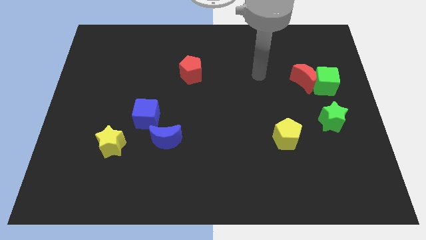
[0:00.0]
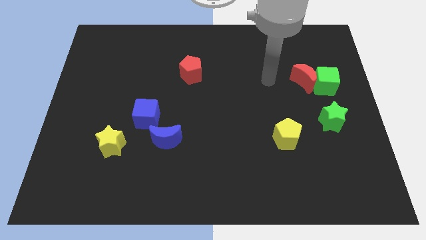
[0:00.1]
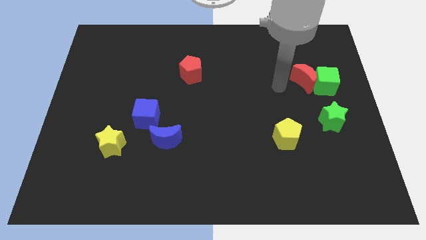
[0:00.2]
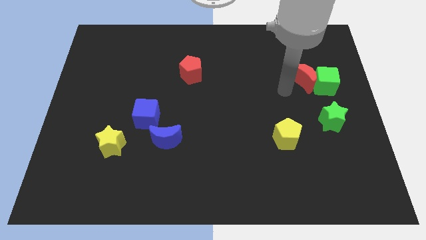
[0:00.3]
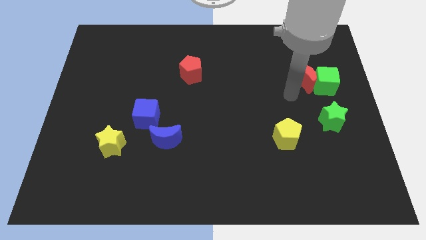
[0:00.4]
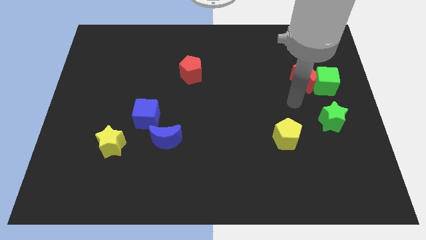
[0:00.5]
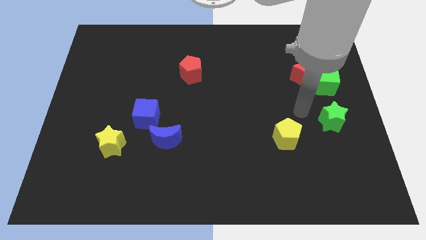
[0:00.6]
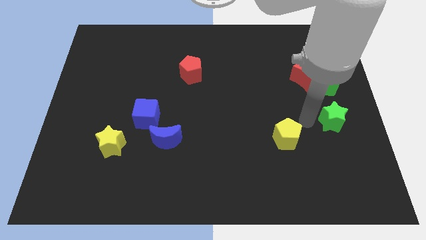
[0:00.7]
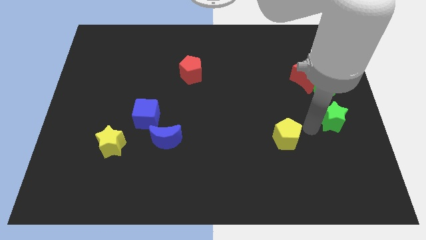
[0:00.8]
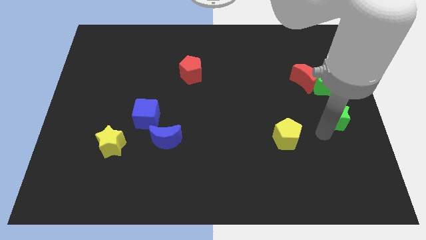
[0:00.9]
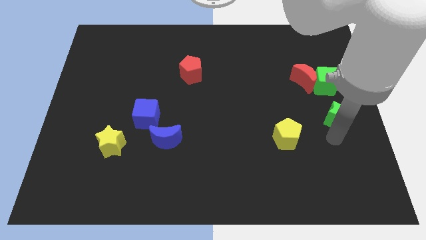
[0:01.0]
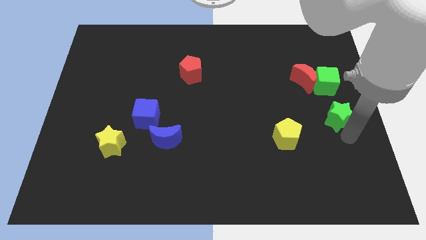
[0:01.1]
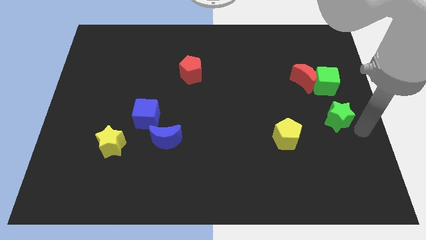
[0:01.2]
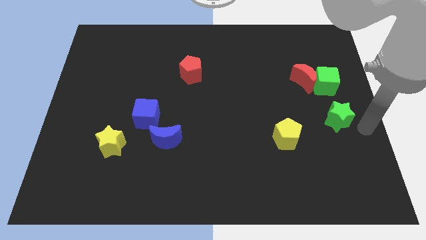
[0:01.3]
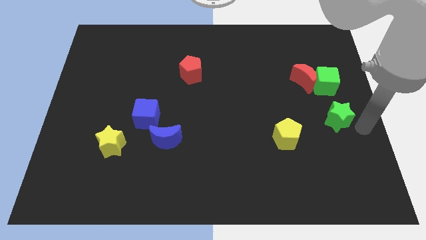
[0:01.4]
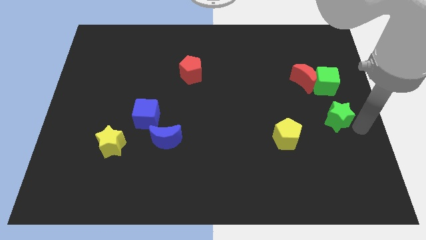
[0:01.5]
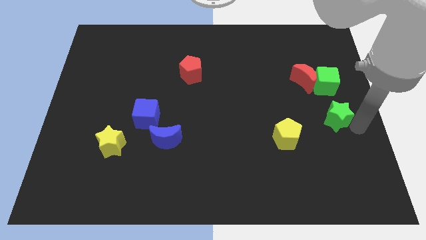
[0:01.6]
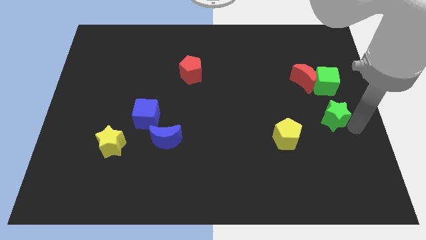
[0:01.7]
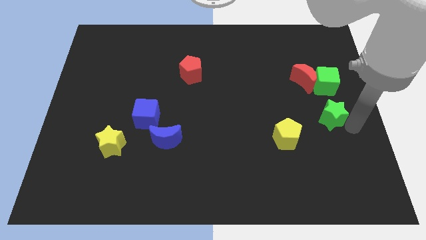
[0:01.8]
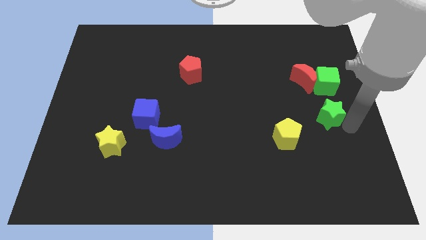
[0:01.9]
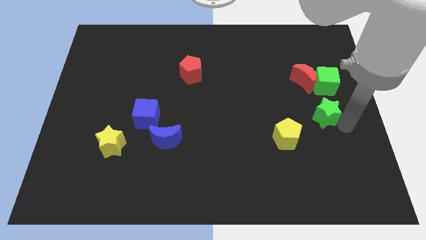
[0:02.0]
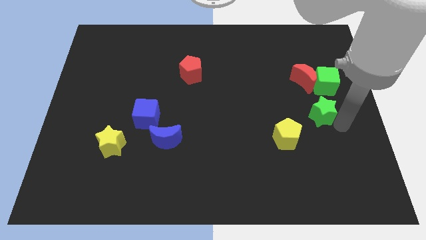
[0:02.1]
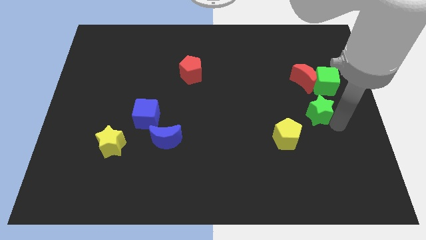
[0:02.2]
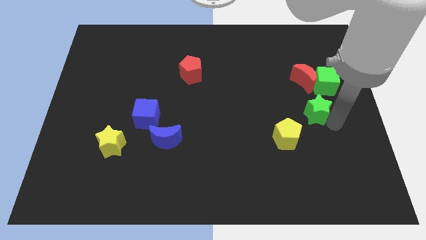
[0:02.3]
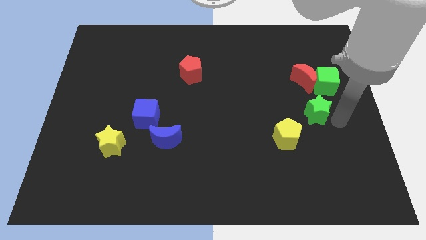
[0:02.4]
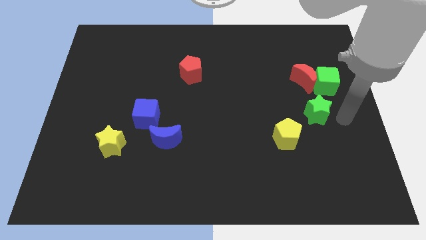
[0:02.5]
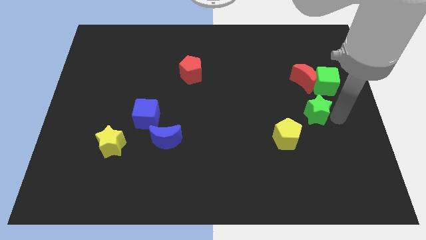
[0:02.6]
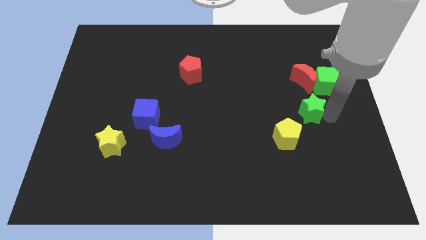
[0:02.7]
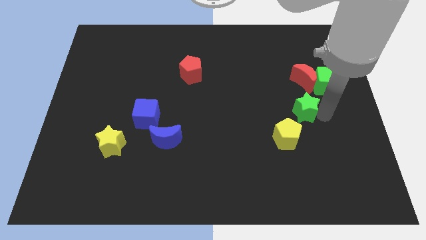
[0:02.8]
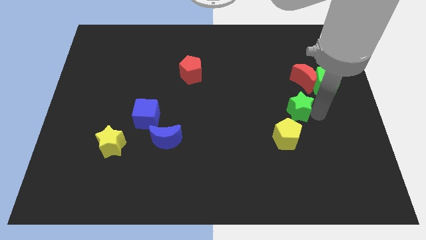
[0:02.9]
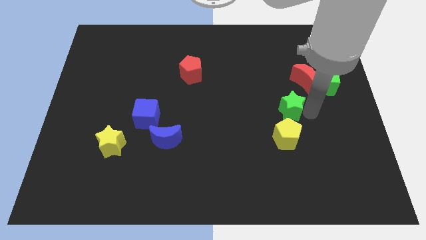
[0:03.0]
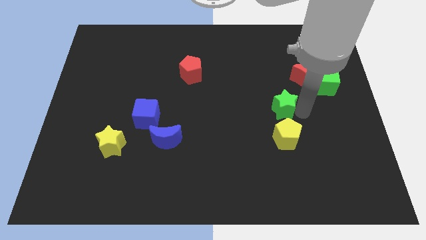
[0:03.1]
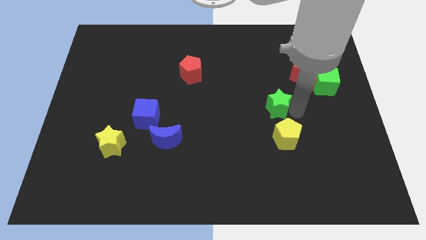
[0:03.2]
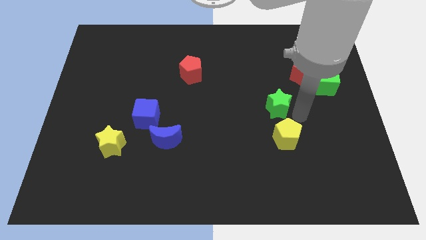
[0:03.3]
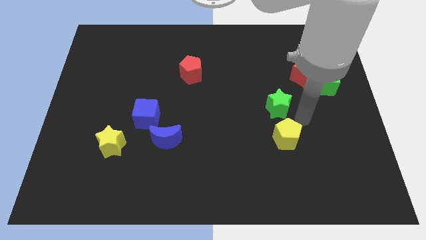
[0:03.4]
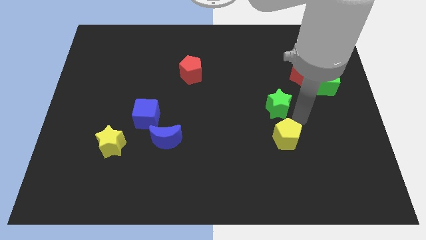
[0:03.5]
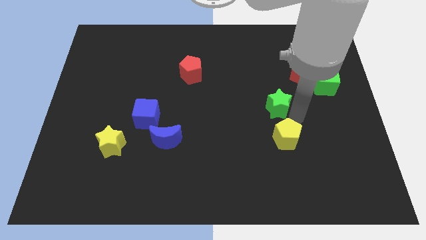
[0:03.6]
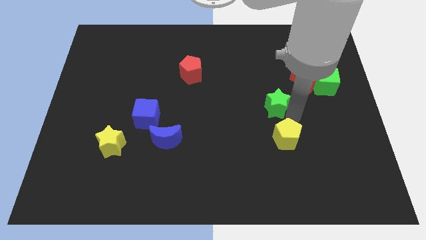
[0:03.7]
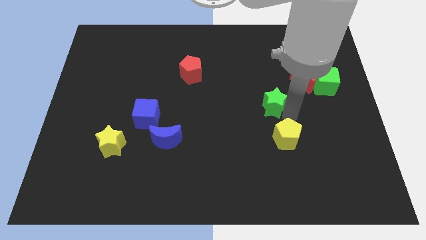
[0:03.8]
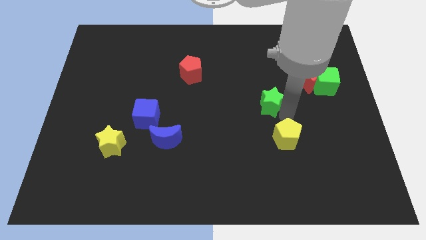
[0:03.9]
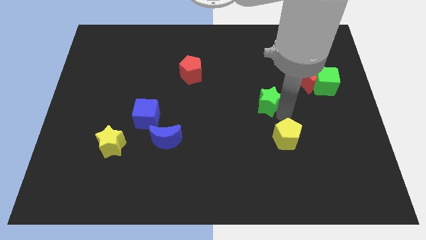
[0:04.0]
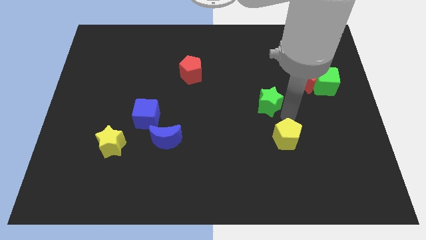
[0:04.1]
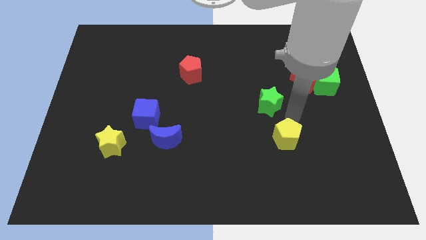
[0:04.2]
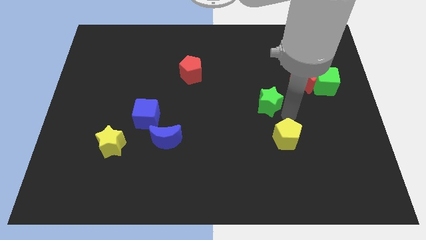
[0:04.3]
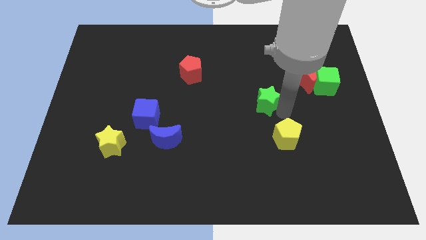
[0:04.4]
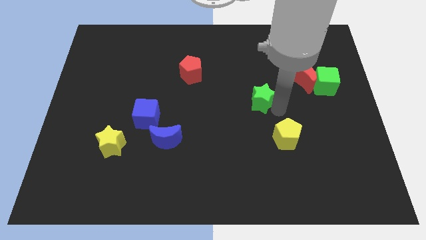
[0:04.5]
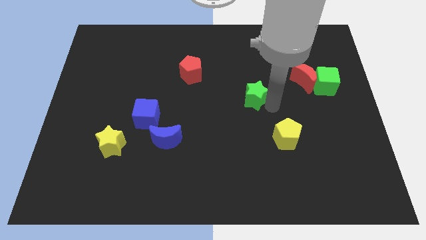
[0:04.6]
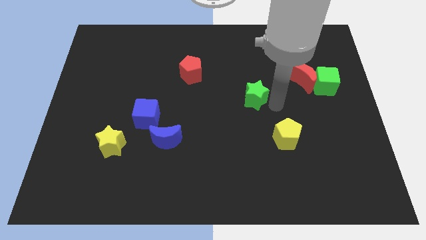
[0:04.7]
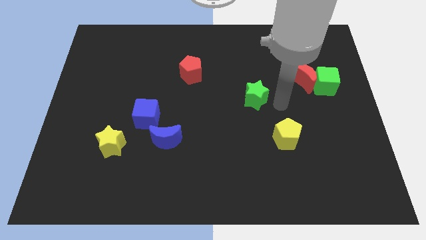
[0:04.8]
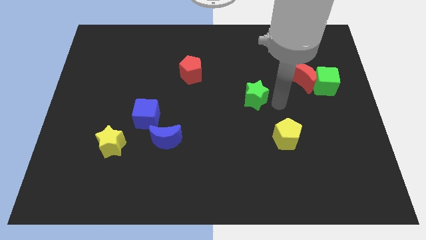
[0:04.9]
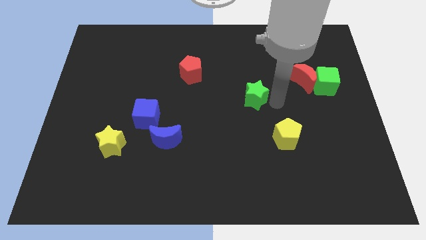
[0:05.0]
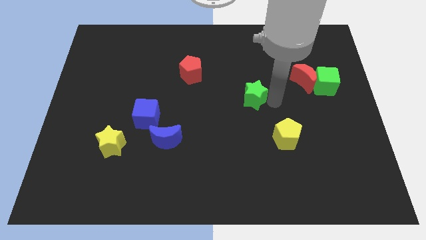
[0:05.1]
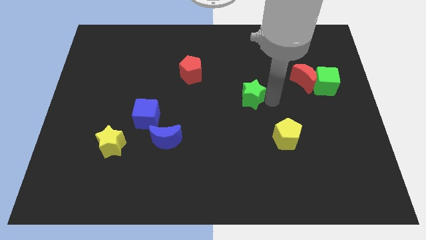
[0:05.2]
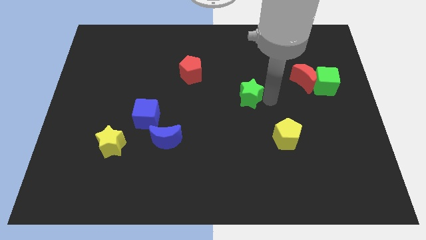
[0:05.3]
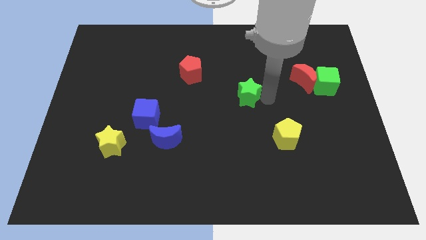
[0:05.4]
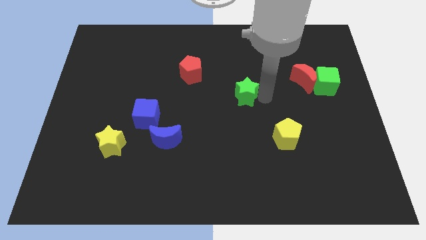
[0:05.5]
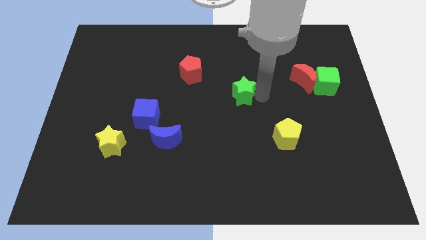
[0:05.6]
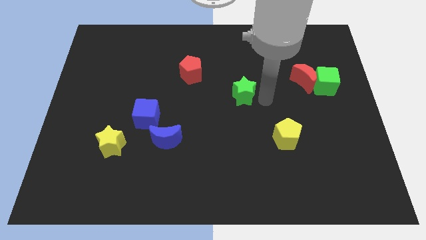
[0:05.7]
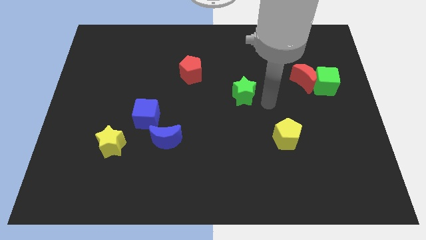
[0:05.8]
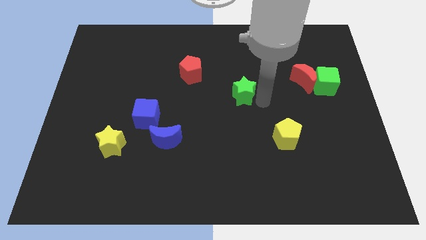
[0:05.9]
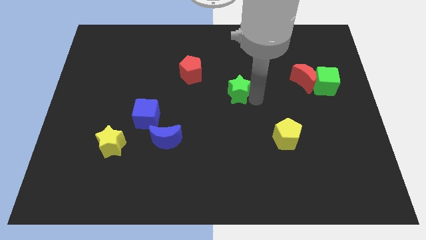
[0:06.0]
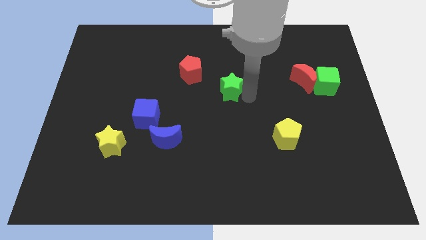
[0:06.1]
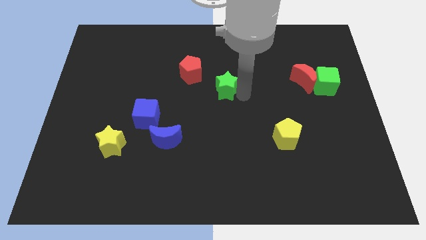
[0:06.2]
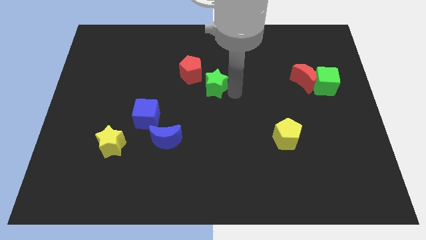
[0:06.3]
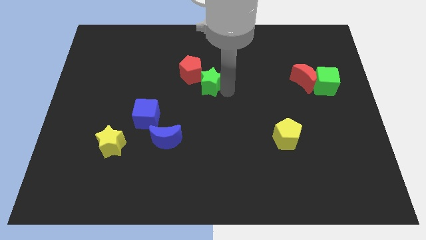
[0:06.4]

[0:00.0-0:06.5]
slide the green star to the red pentagon

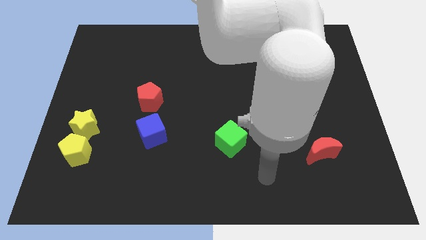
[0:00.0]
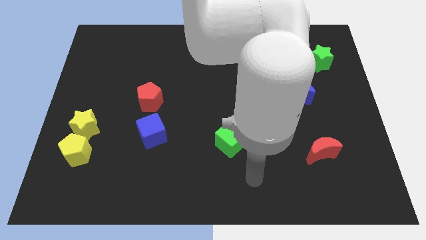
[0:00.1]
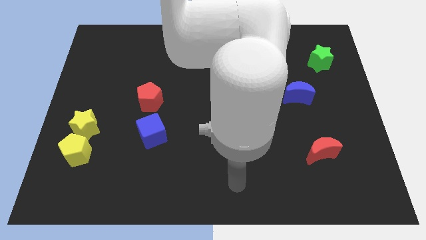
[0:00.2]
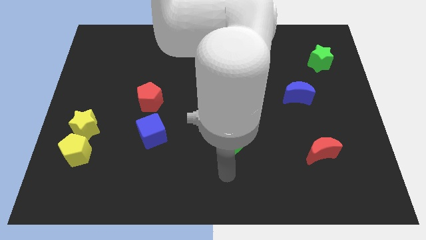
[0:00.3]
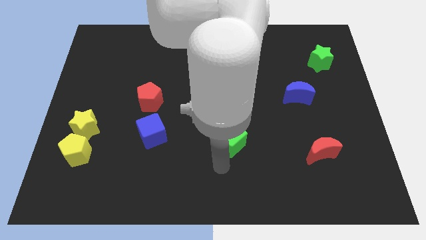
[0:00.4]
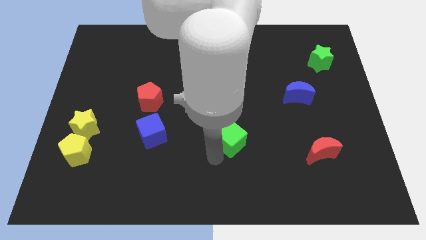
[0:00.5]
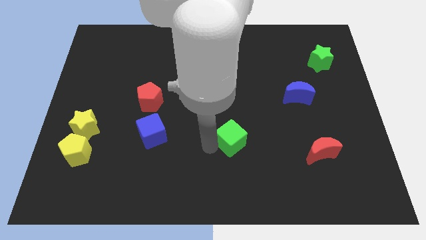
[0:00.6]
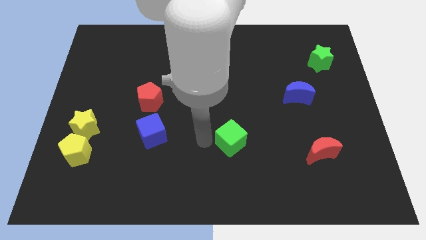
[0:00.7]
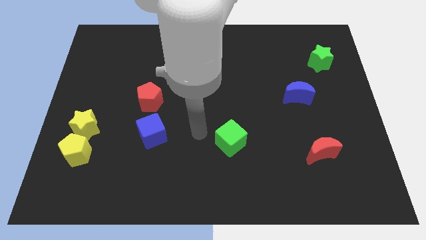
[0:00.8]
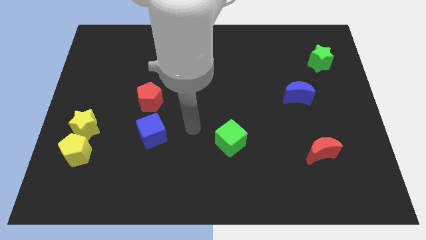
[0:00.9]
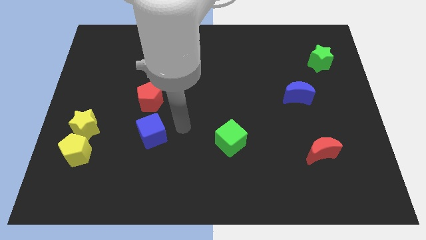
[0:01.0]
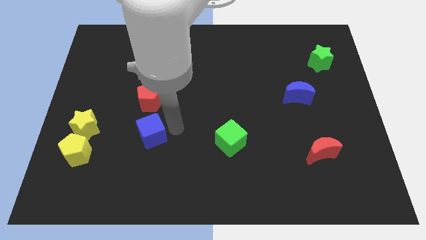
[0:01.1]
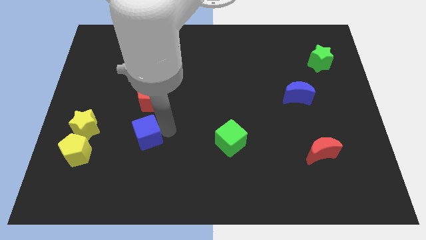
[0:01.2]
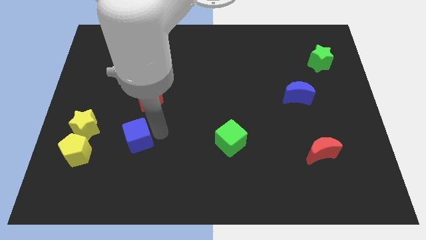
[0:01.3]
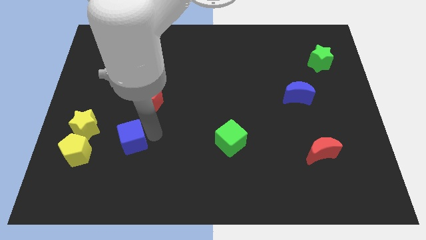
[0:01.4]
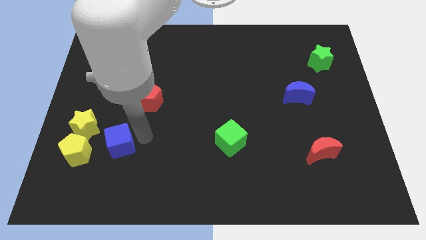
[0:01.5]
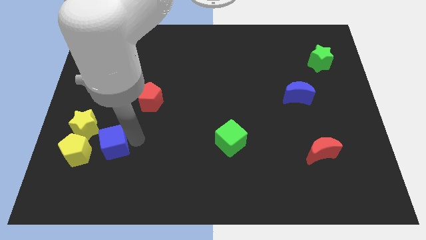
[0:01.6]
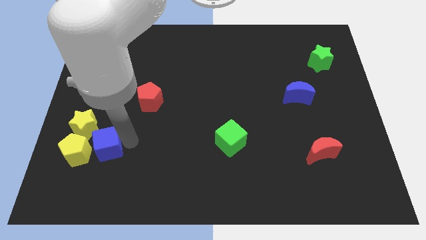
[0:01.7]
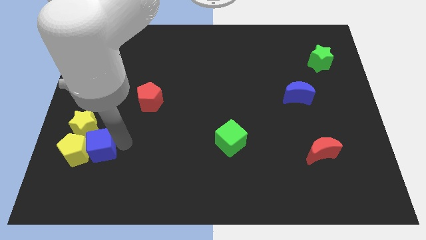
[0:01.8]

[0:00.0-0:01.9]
put the blue cube towards the yellow pentagon
